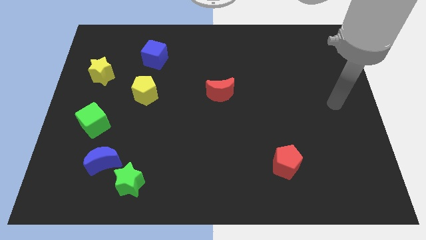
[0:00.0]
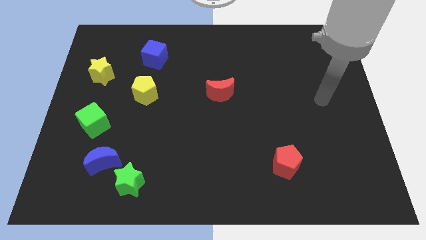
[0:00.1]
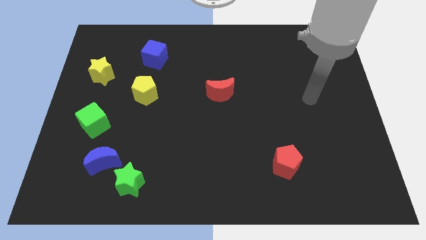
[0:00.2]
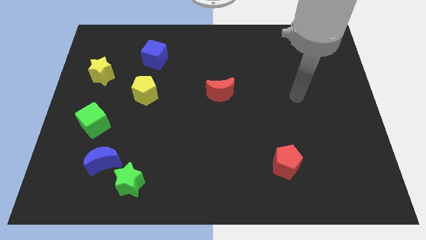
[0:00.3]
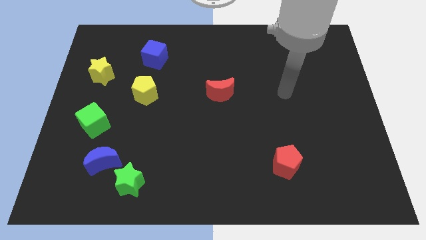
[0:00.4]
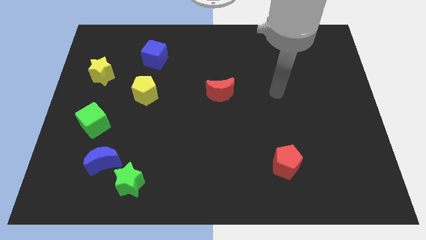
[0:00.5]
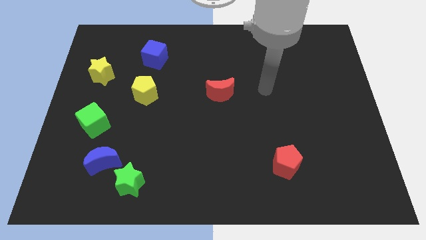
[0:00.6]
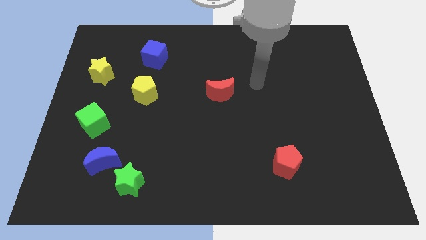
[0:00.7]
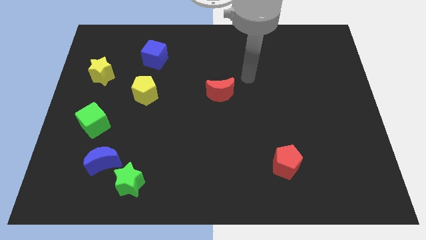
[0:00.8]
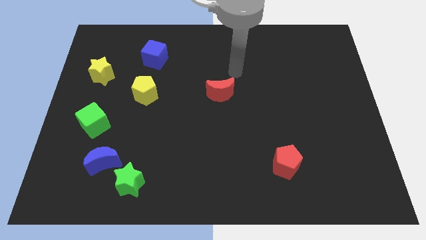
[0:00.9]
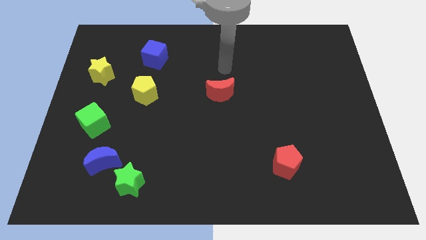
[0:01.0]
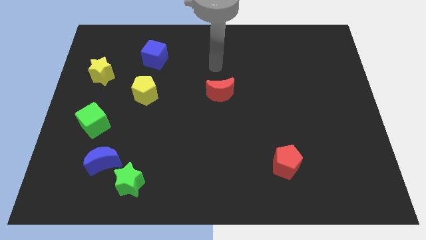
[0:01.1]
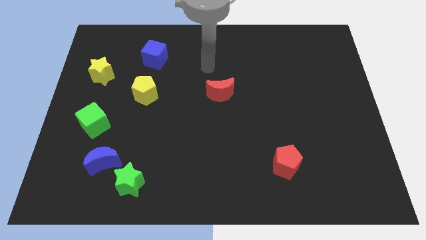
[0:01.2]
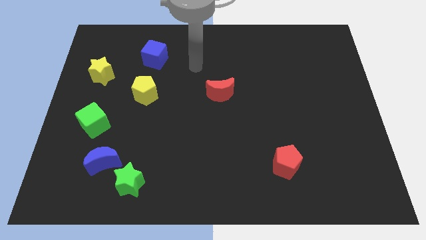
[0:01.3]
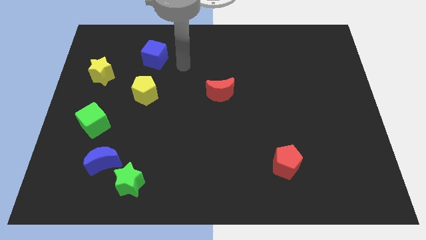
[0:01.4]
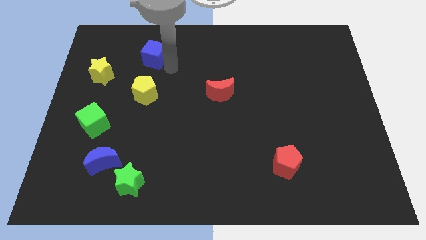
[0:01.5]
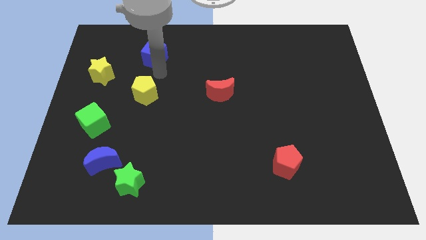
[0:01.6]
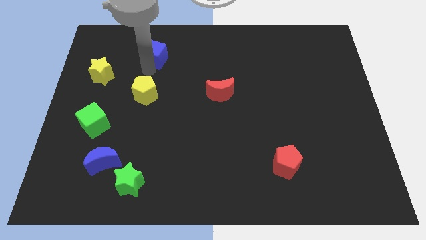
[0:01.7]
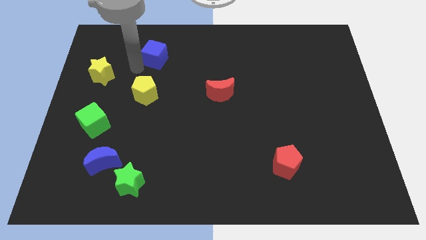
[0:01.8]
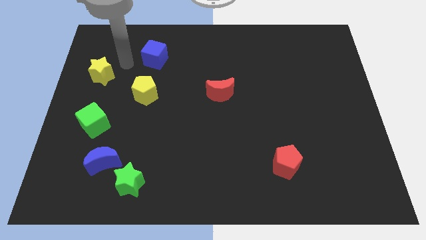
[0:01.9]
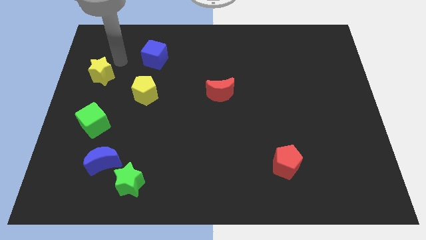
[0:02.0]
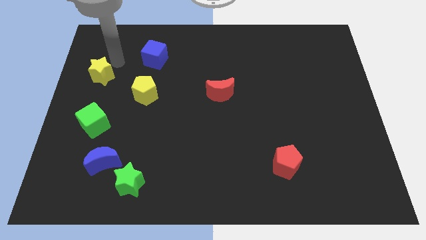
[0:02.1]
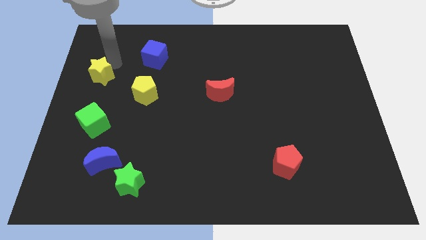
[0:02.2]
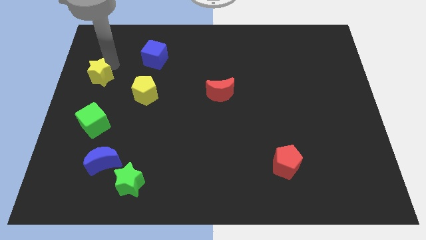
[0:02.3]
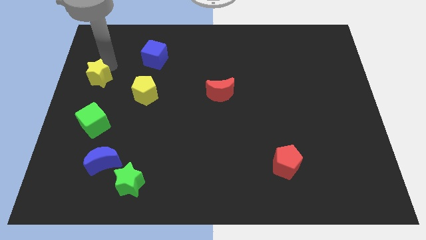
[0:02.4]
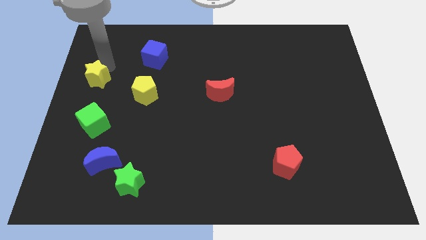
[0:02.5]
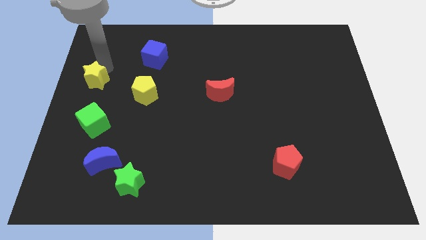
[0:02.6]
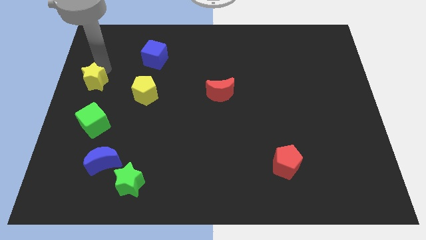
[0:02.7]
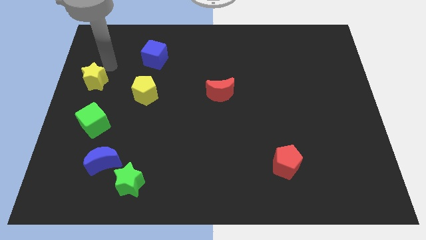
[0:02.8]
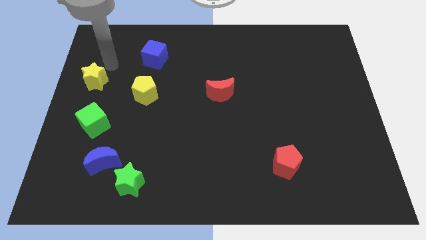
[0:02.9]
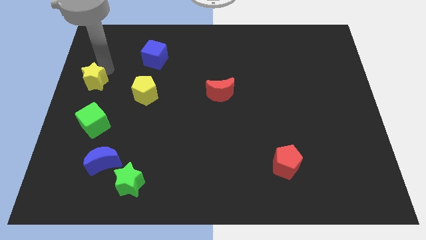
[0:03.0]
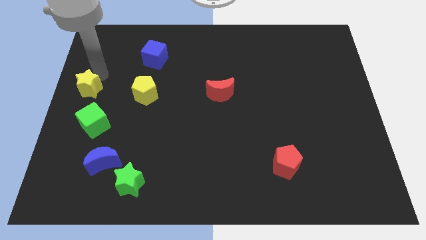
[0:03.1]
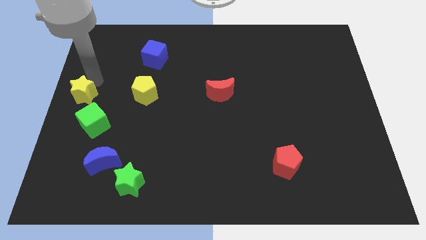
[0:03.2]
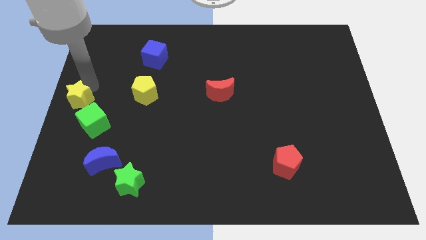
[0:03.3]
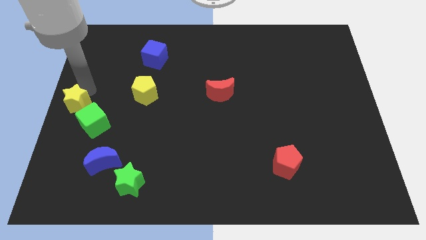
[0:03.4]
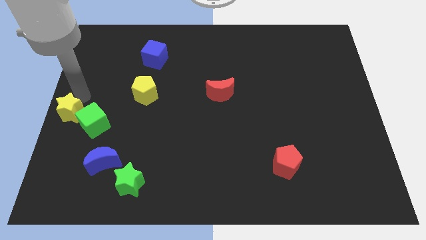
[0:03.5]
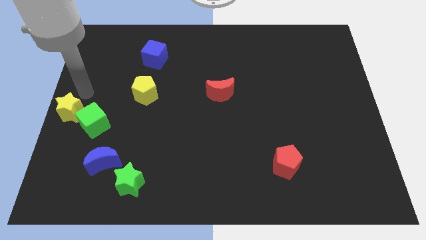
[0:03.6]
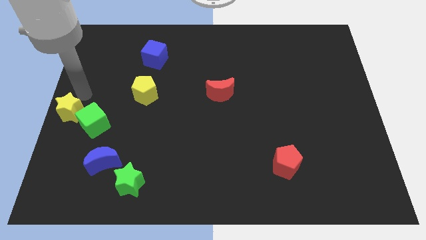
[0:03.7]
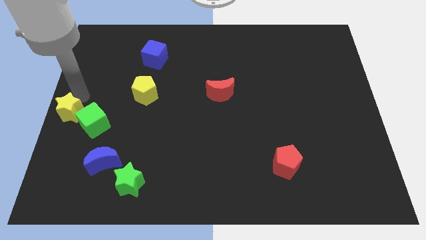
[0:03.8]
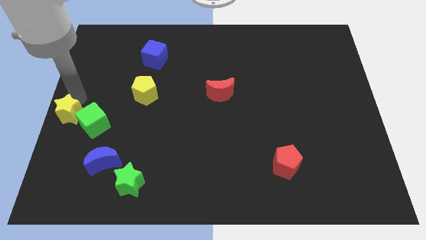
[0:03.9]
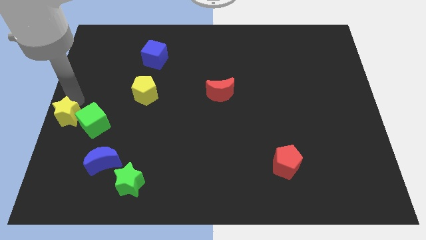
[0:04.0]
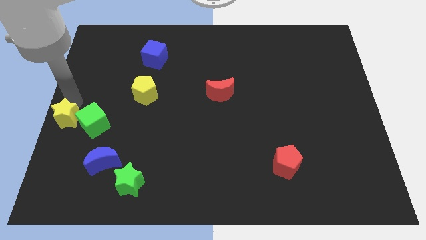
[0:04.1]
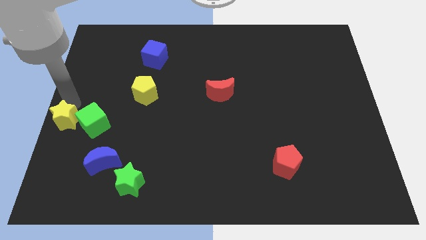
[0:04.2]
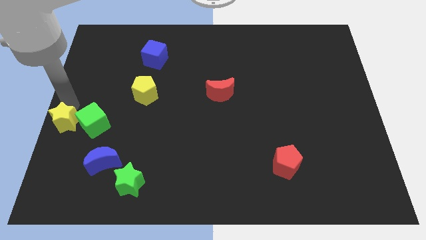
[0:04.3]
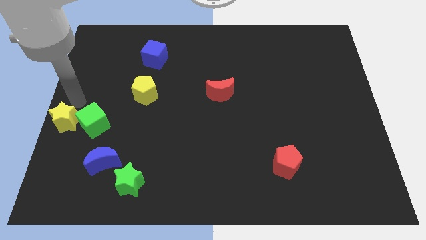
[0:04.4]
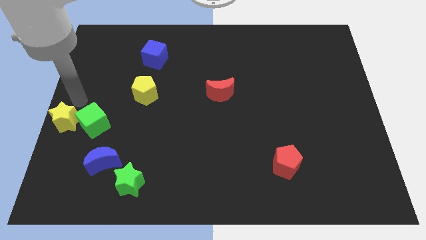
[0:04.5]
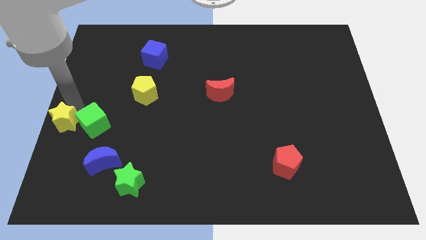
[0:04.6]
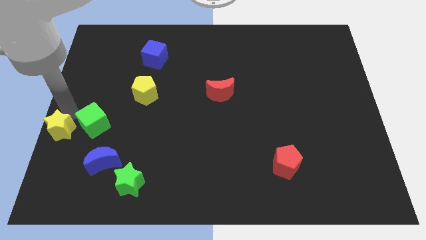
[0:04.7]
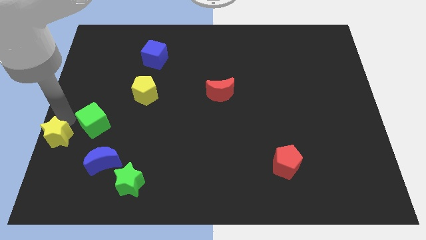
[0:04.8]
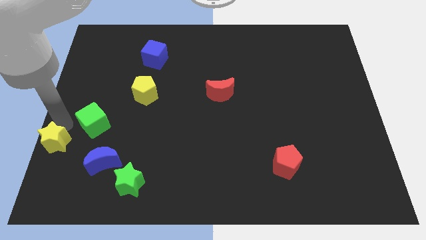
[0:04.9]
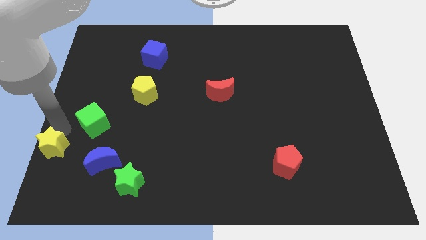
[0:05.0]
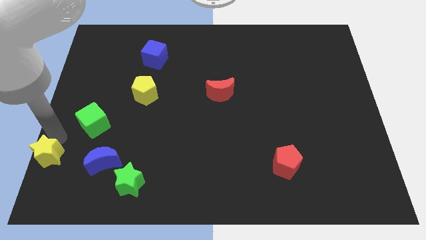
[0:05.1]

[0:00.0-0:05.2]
slide the yellow star to the bottom left corner

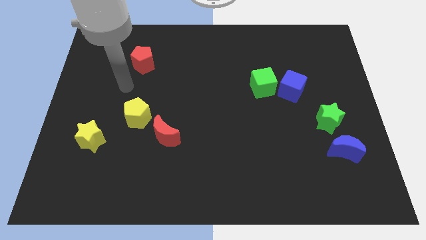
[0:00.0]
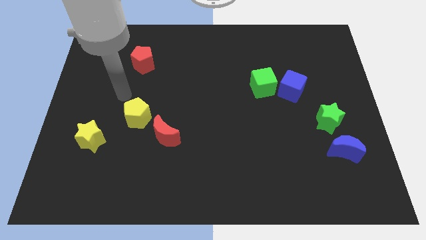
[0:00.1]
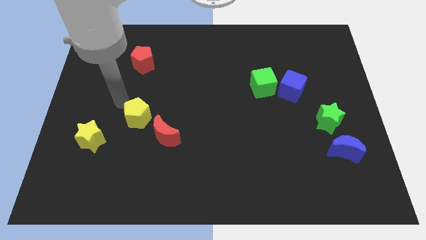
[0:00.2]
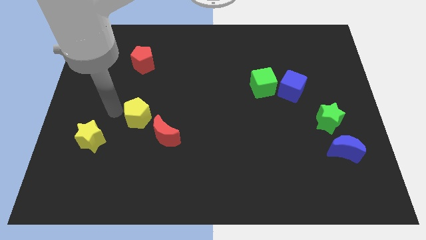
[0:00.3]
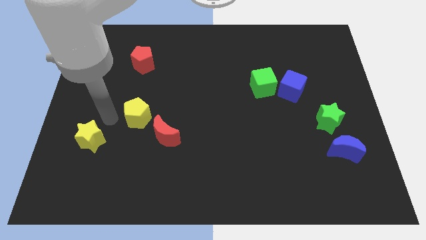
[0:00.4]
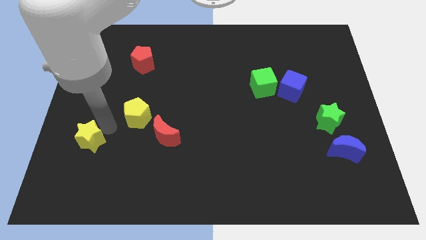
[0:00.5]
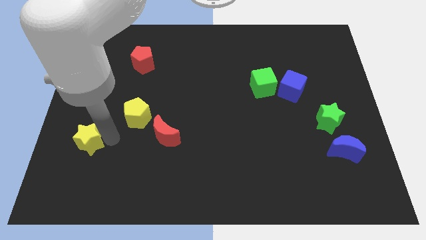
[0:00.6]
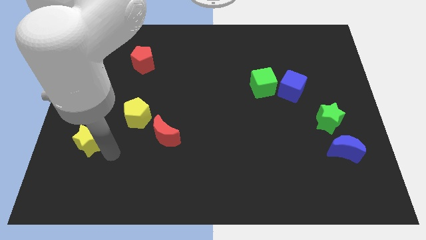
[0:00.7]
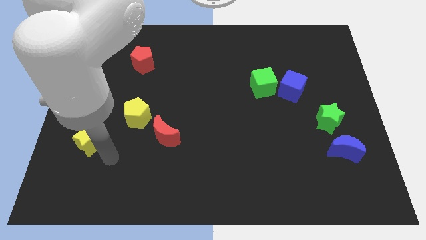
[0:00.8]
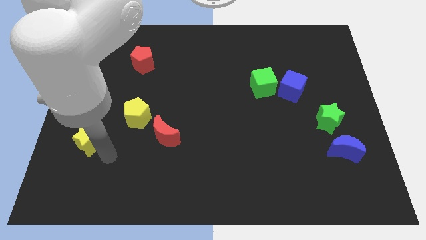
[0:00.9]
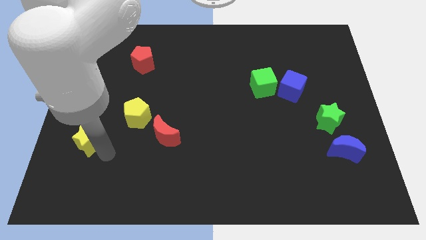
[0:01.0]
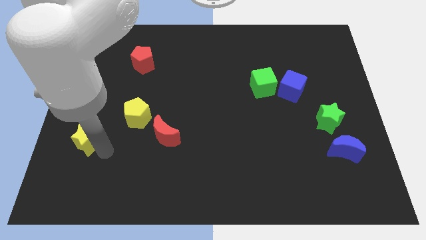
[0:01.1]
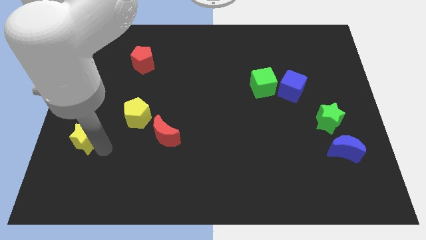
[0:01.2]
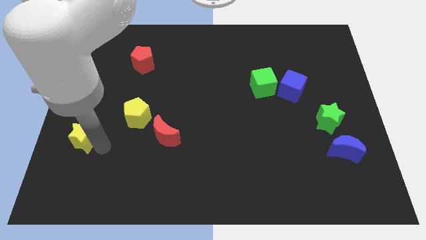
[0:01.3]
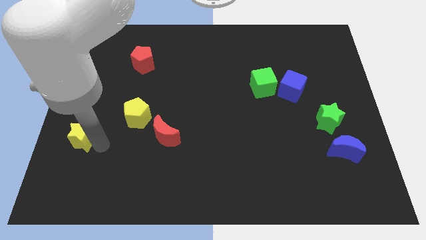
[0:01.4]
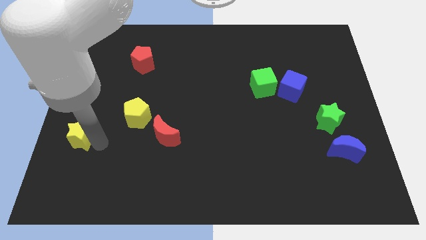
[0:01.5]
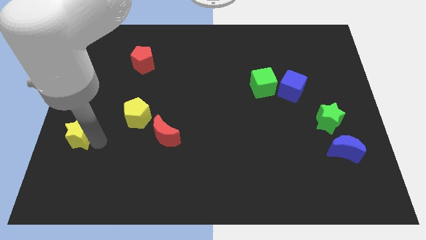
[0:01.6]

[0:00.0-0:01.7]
move the yellow star to the left side
